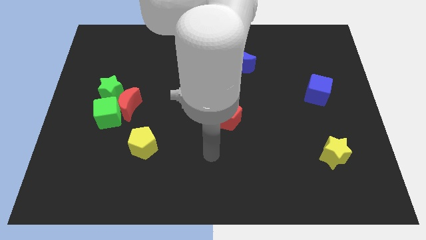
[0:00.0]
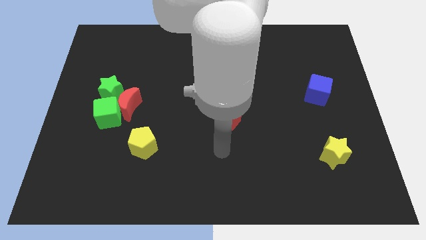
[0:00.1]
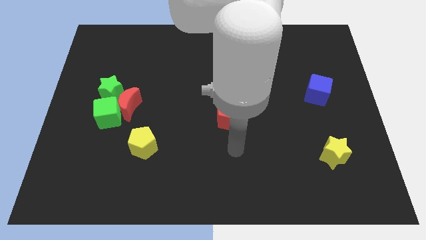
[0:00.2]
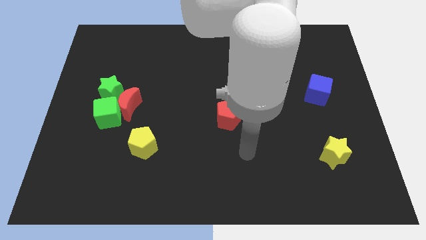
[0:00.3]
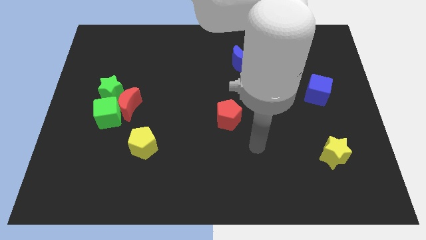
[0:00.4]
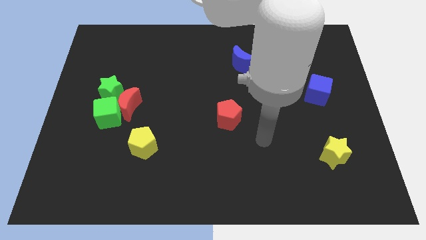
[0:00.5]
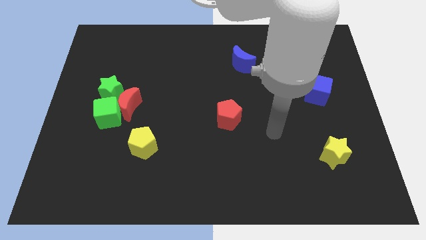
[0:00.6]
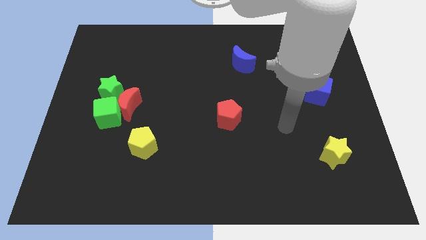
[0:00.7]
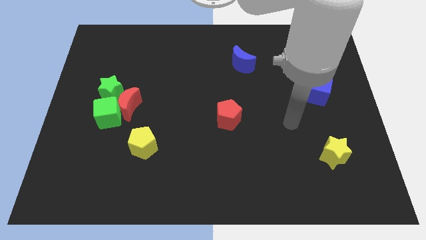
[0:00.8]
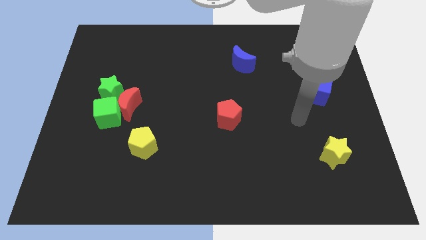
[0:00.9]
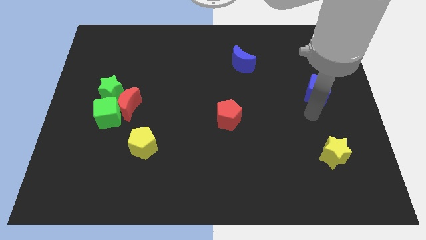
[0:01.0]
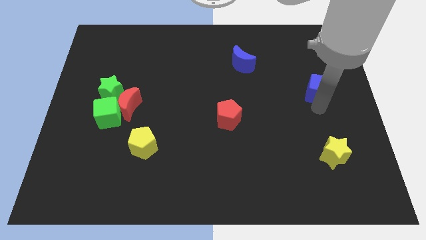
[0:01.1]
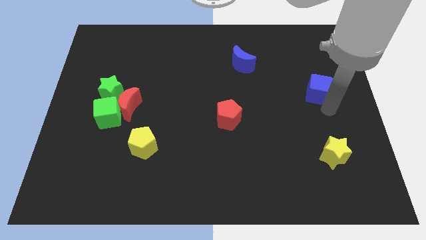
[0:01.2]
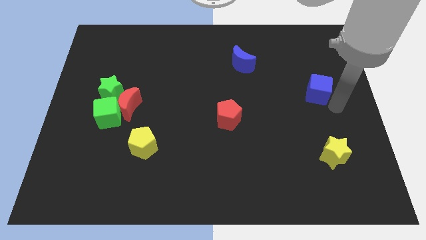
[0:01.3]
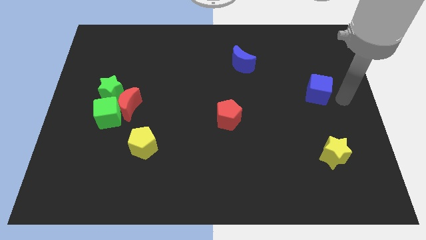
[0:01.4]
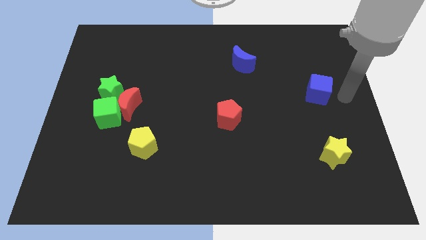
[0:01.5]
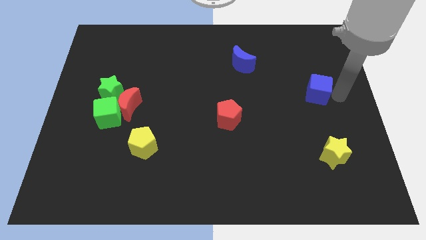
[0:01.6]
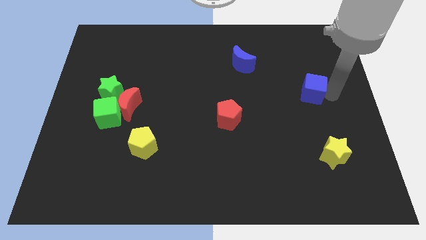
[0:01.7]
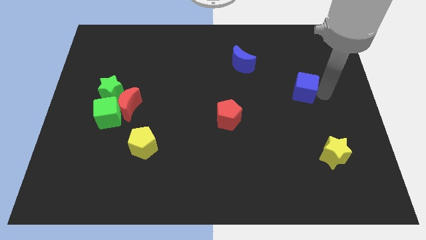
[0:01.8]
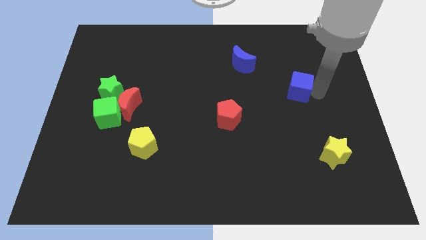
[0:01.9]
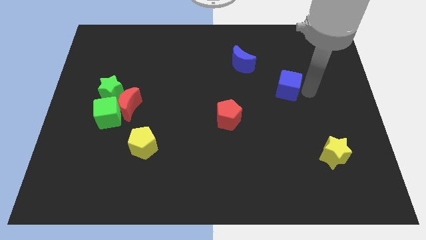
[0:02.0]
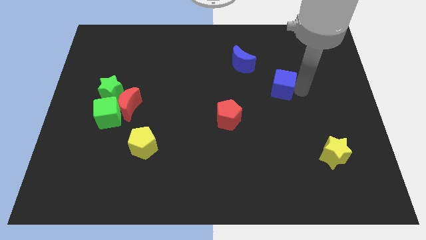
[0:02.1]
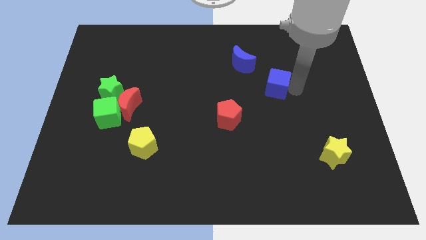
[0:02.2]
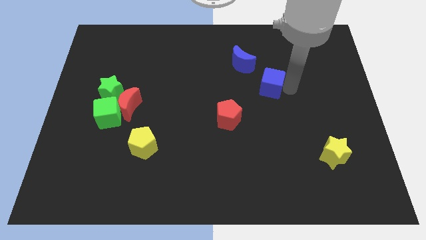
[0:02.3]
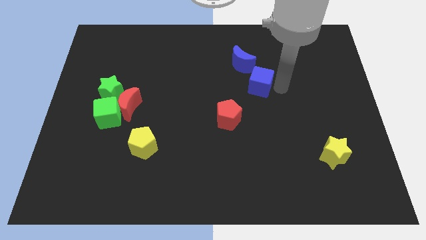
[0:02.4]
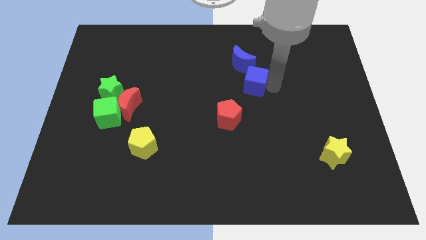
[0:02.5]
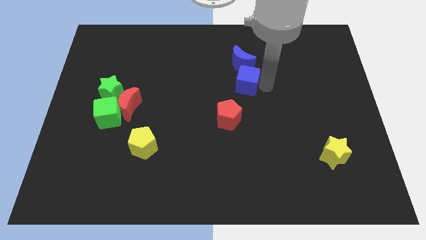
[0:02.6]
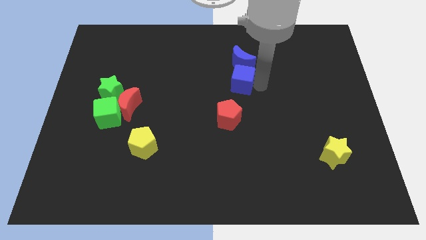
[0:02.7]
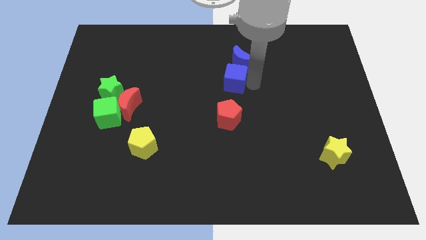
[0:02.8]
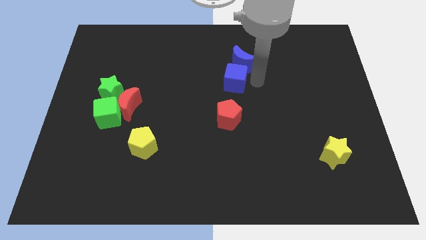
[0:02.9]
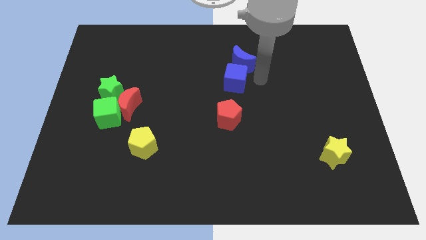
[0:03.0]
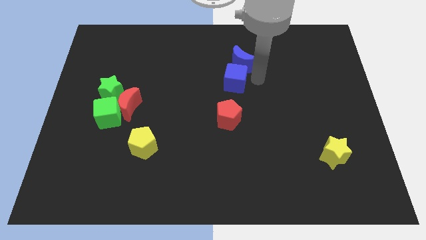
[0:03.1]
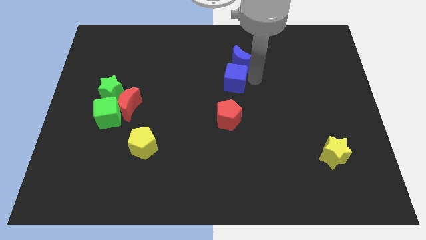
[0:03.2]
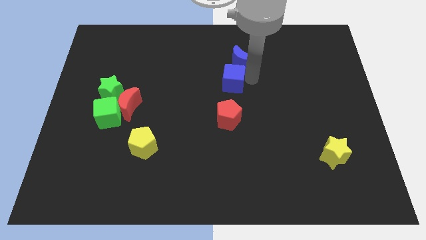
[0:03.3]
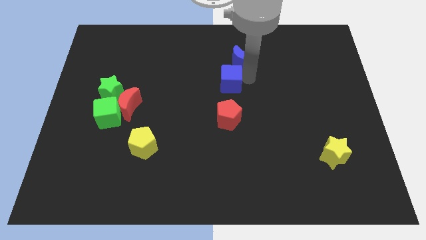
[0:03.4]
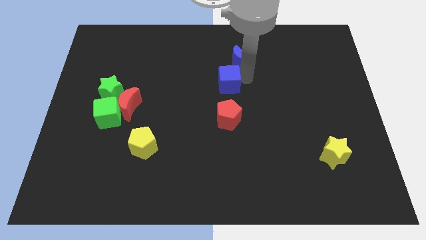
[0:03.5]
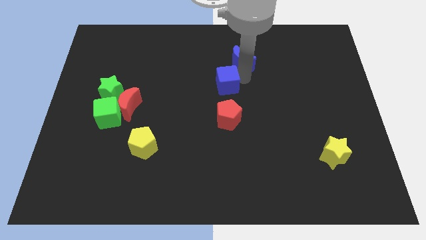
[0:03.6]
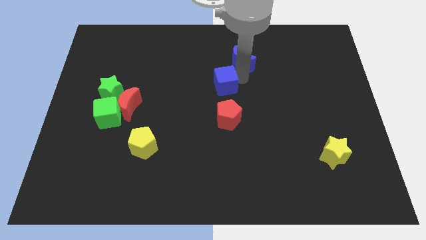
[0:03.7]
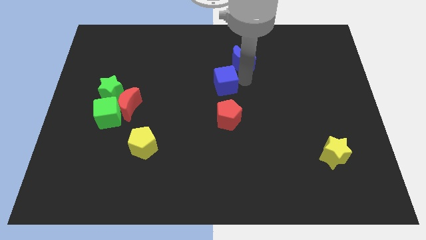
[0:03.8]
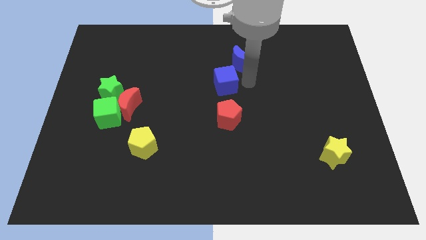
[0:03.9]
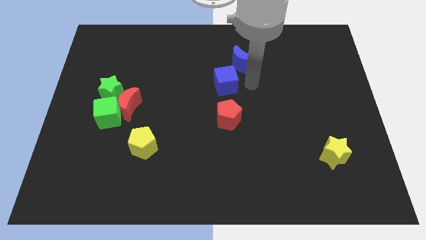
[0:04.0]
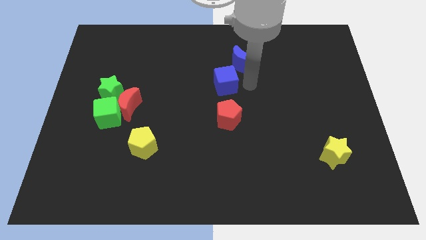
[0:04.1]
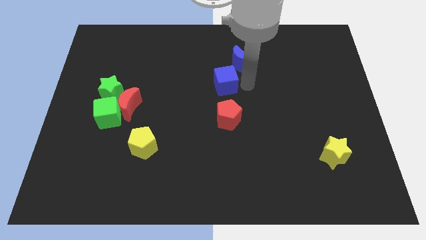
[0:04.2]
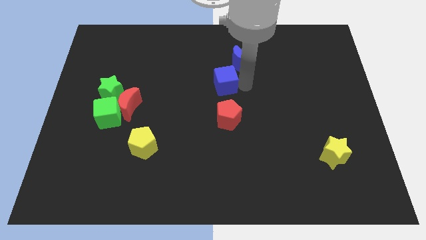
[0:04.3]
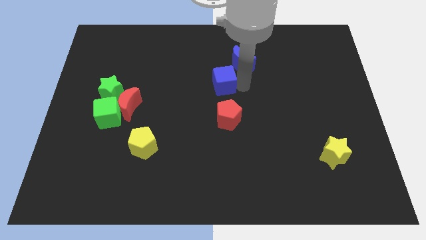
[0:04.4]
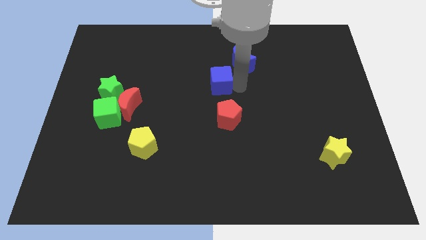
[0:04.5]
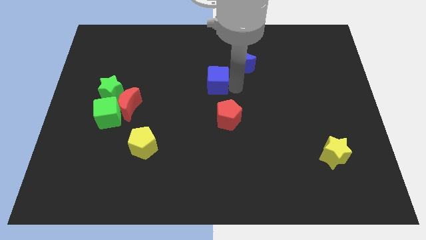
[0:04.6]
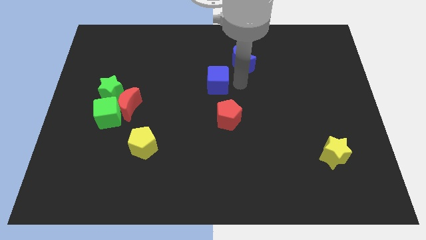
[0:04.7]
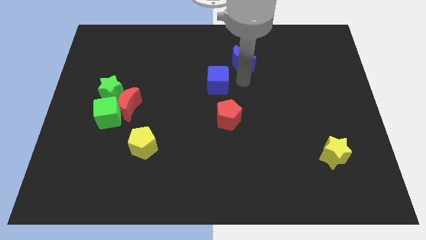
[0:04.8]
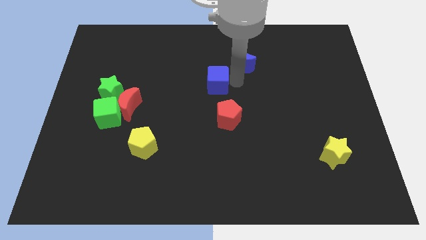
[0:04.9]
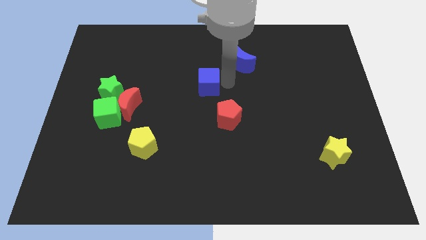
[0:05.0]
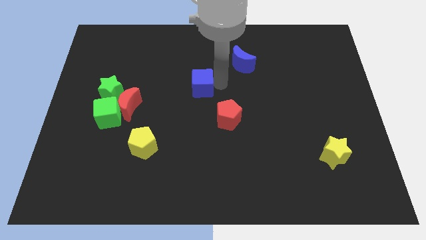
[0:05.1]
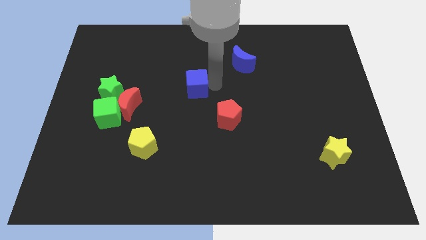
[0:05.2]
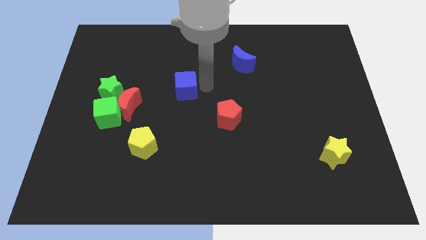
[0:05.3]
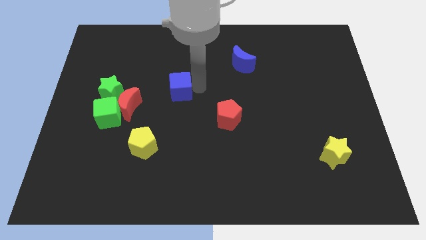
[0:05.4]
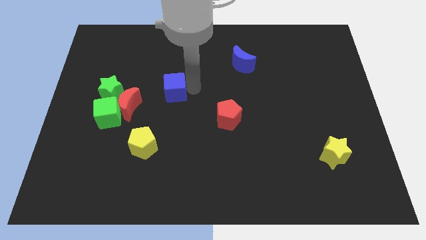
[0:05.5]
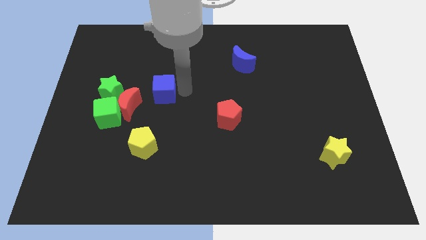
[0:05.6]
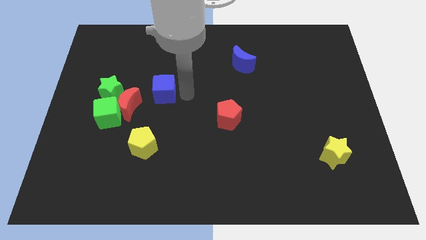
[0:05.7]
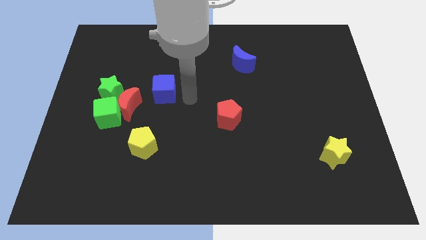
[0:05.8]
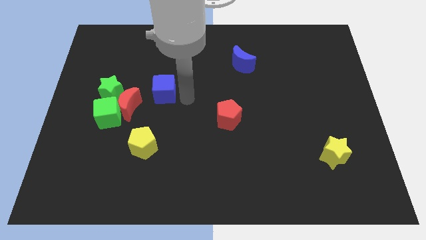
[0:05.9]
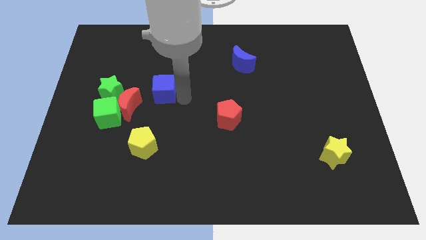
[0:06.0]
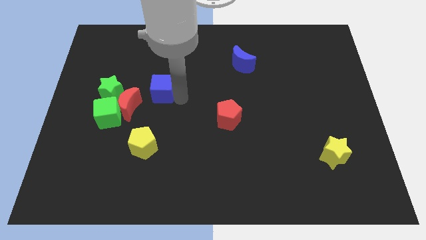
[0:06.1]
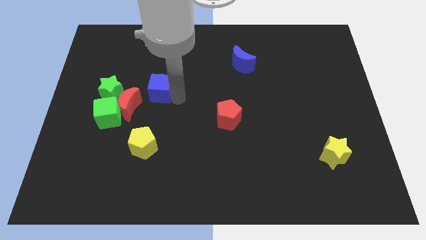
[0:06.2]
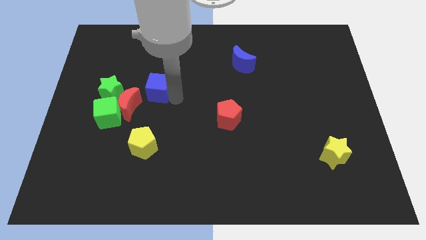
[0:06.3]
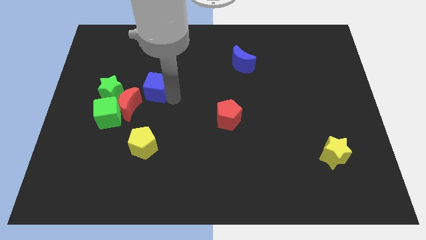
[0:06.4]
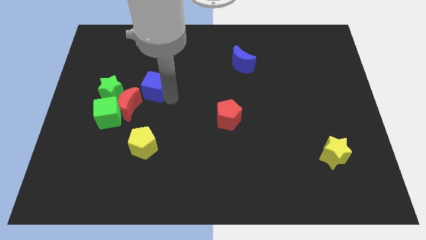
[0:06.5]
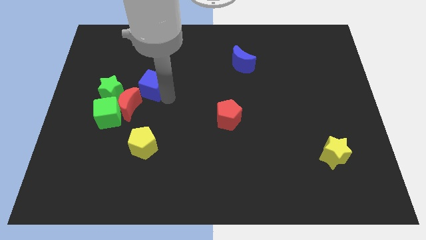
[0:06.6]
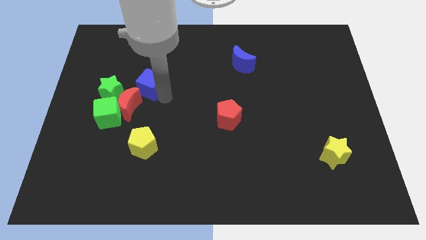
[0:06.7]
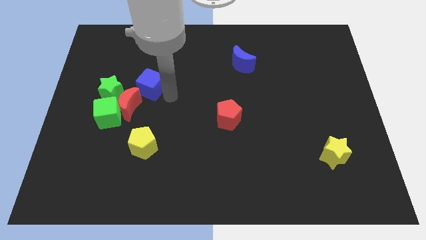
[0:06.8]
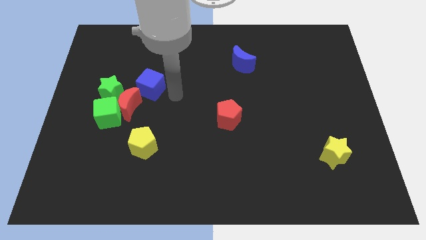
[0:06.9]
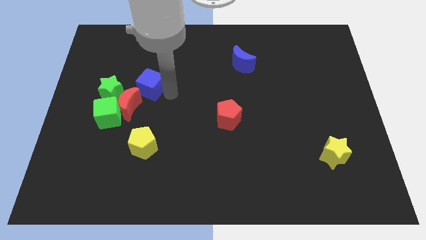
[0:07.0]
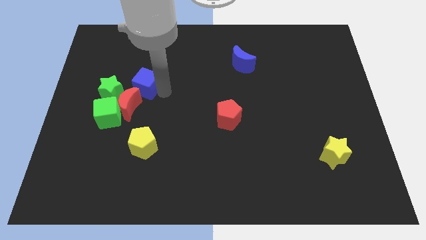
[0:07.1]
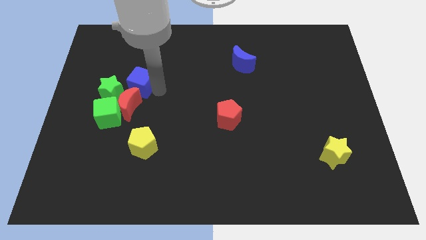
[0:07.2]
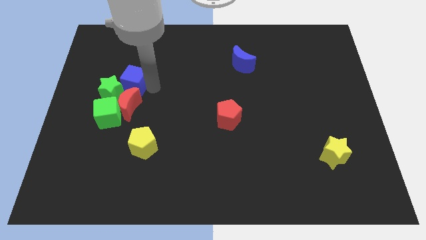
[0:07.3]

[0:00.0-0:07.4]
push the blue cube close to the green star
